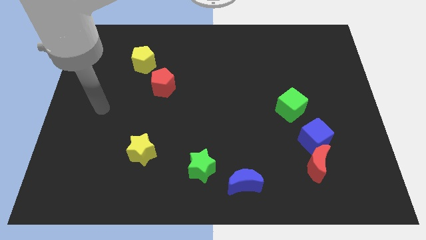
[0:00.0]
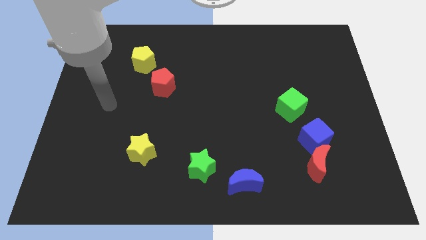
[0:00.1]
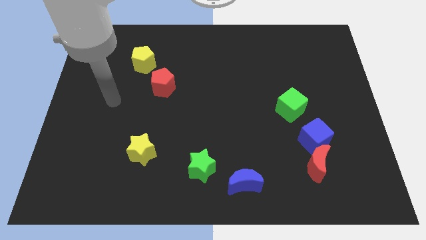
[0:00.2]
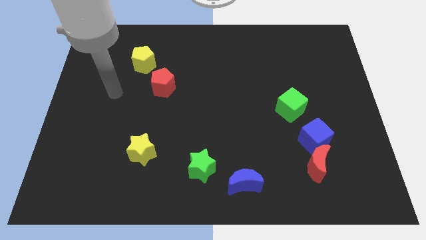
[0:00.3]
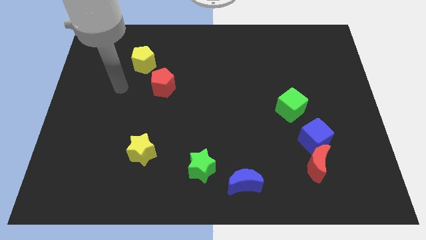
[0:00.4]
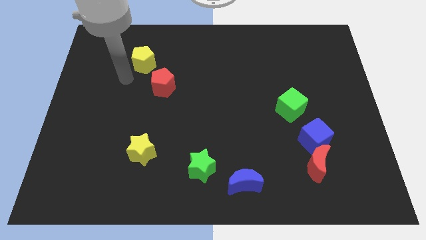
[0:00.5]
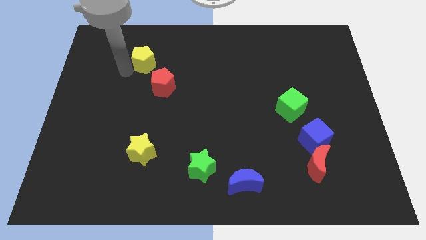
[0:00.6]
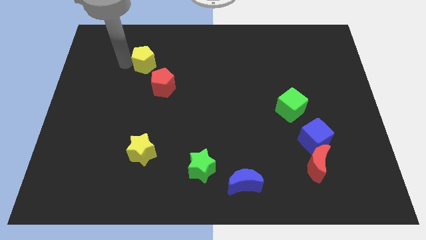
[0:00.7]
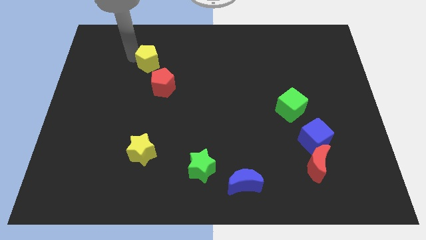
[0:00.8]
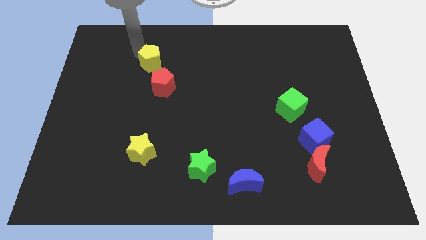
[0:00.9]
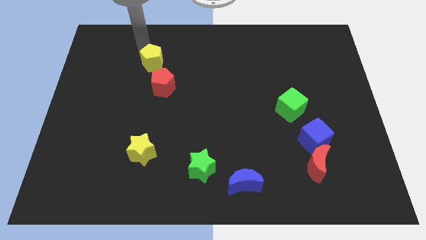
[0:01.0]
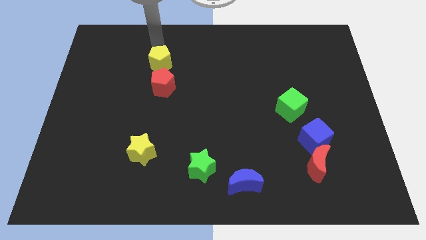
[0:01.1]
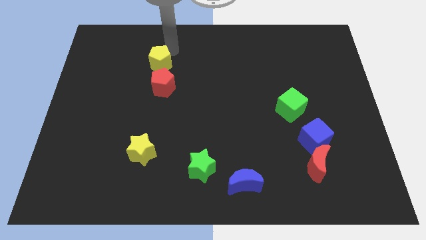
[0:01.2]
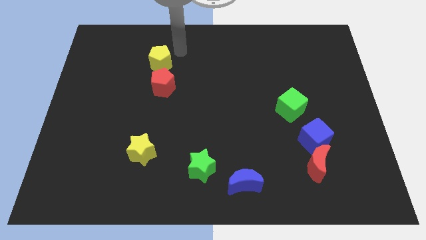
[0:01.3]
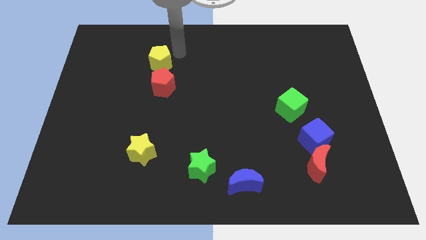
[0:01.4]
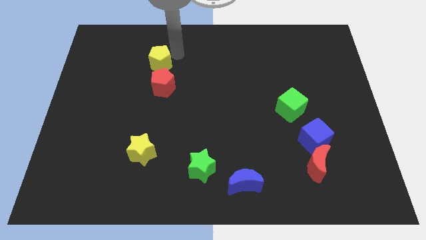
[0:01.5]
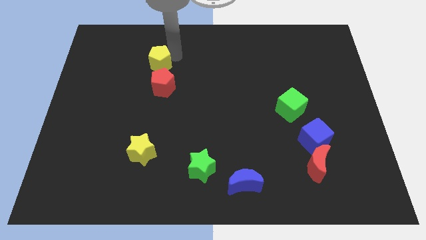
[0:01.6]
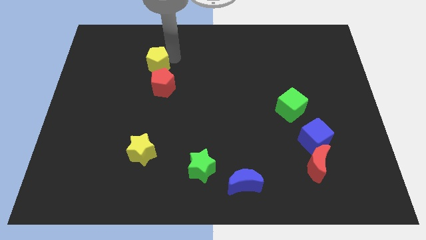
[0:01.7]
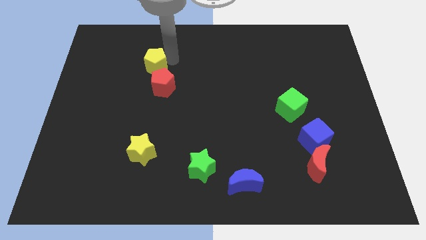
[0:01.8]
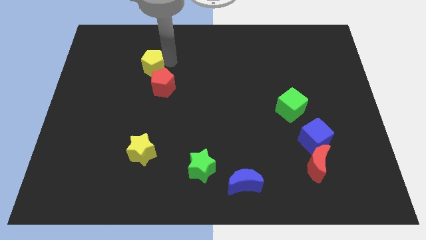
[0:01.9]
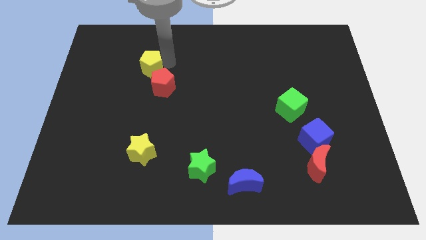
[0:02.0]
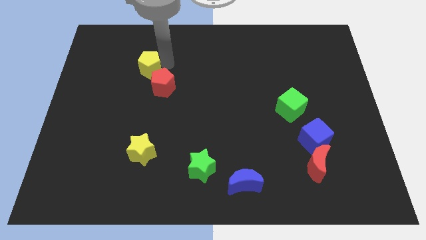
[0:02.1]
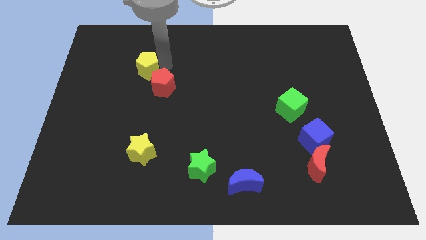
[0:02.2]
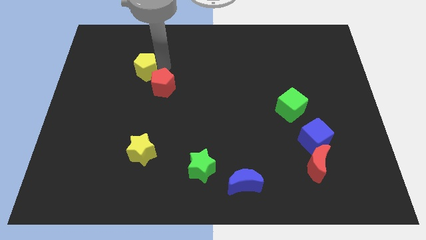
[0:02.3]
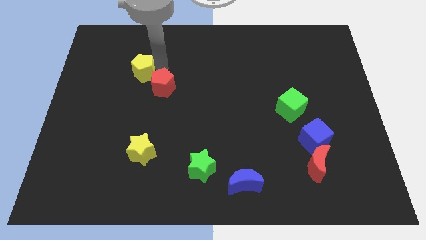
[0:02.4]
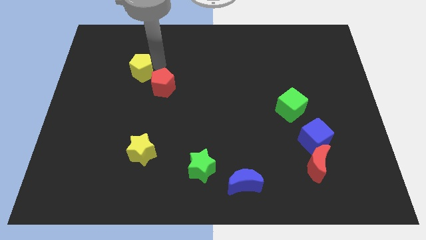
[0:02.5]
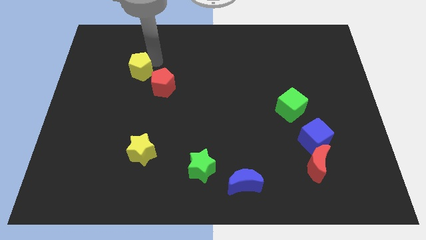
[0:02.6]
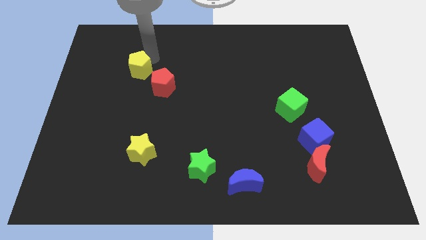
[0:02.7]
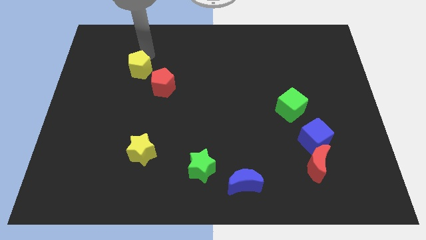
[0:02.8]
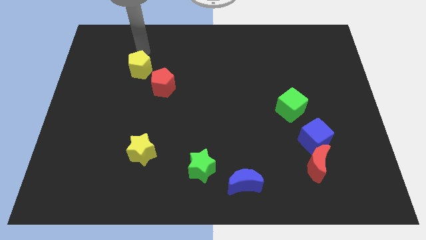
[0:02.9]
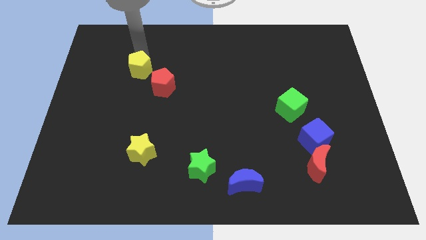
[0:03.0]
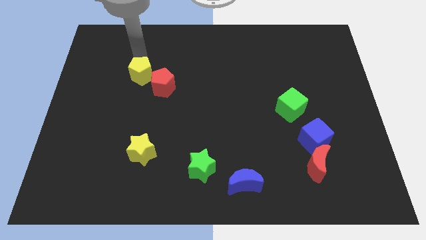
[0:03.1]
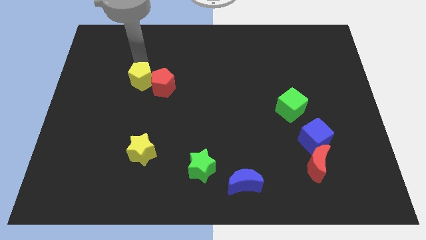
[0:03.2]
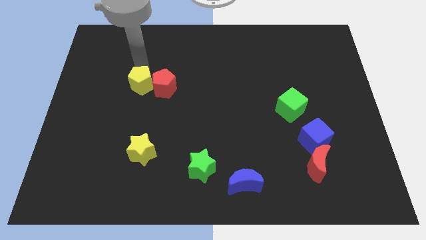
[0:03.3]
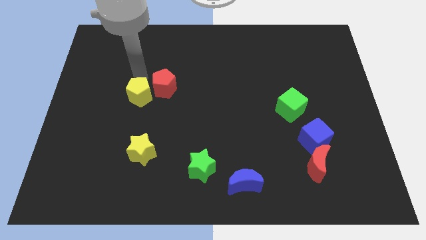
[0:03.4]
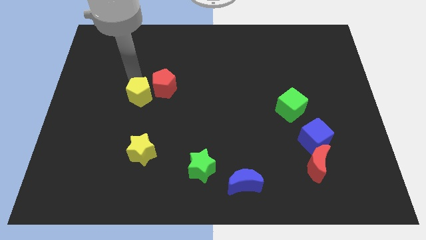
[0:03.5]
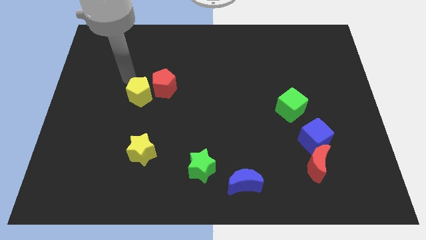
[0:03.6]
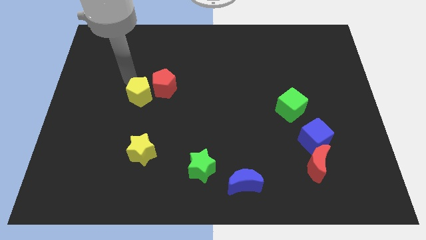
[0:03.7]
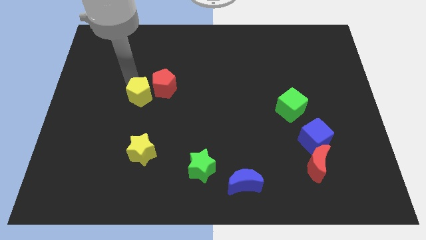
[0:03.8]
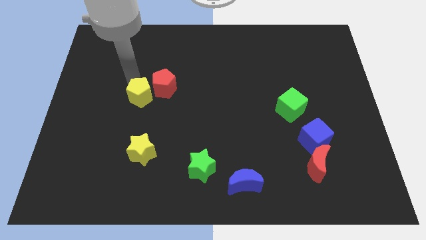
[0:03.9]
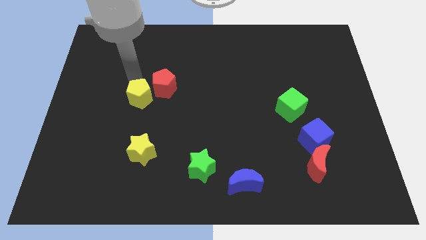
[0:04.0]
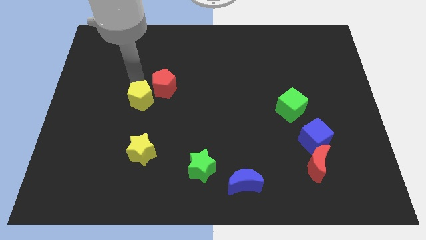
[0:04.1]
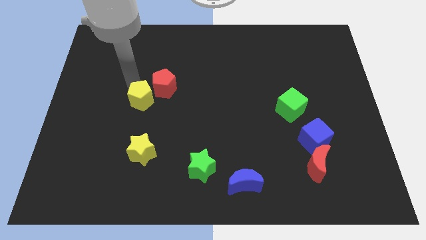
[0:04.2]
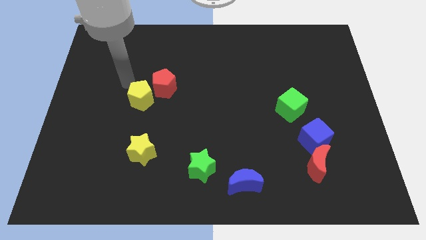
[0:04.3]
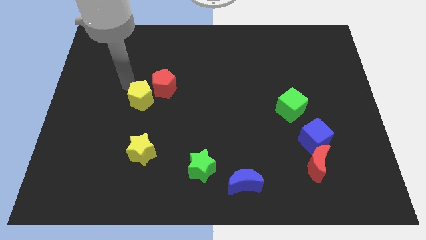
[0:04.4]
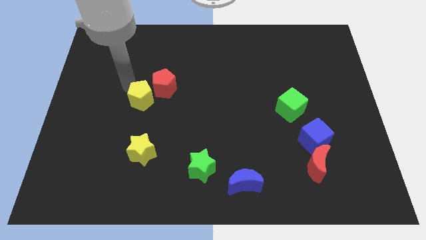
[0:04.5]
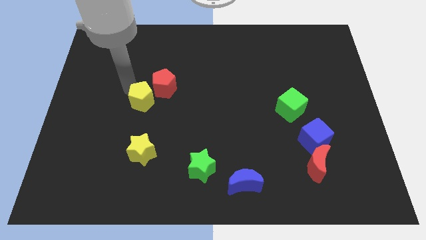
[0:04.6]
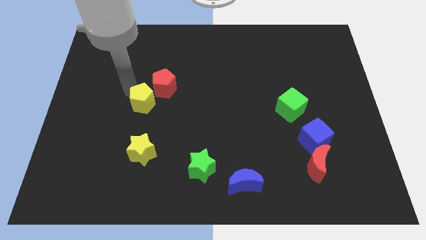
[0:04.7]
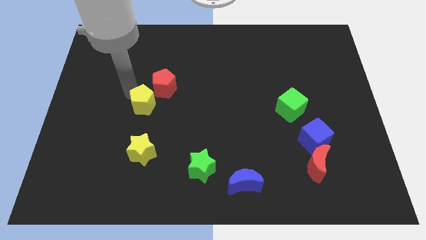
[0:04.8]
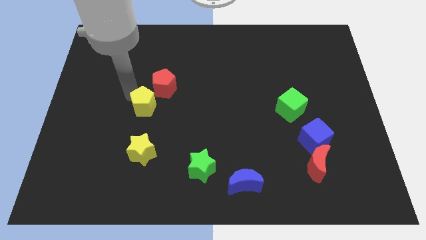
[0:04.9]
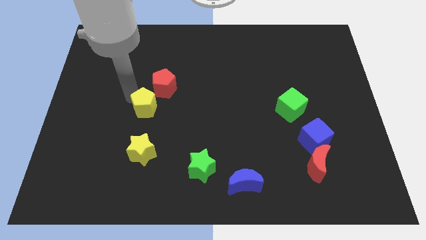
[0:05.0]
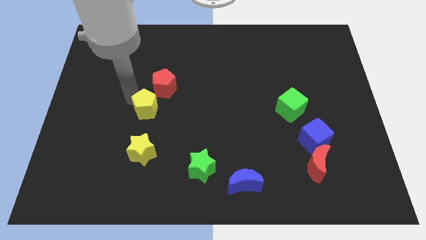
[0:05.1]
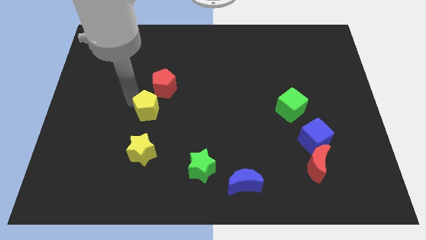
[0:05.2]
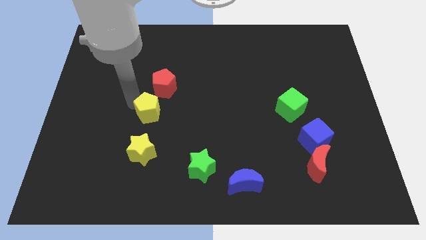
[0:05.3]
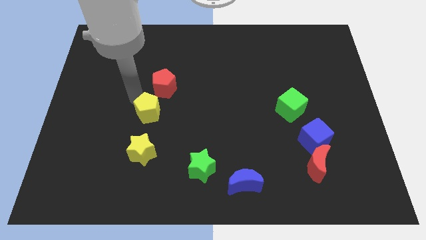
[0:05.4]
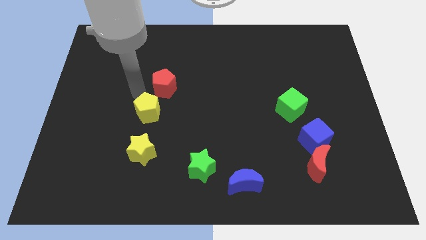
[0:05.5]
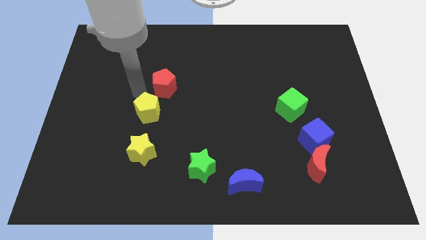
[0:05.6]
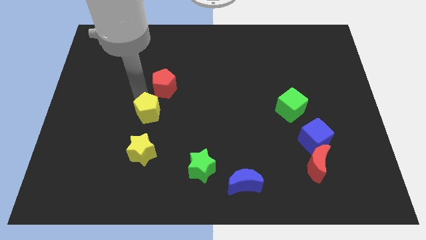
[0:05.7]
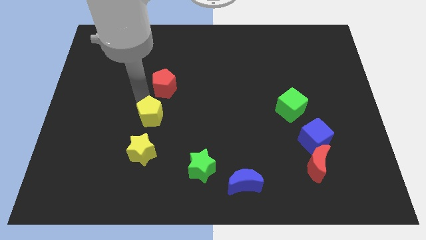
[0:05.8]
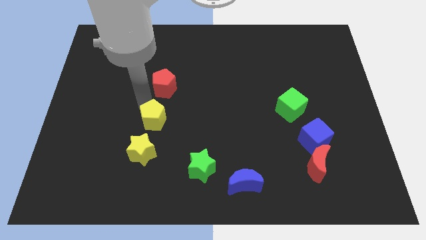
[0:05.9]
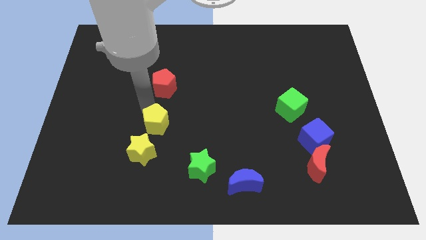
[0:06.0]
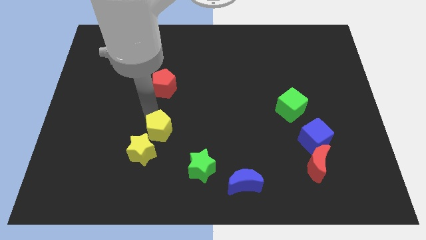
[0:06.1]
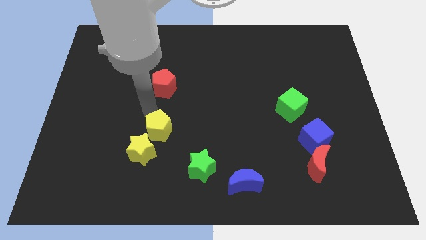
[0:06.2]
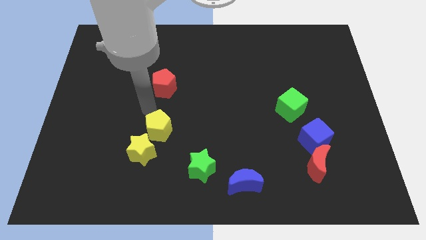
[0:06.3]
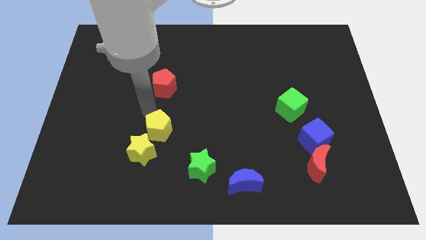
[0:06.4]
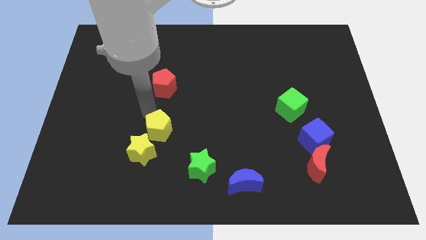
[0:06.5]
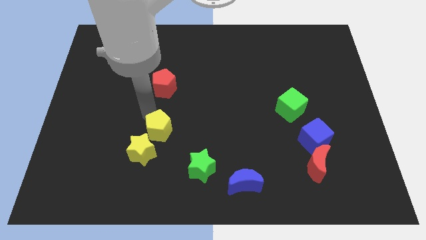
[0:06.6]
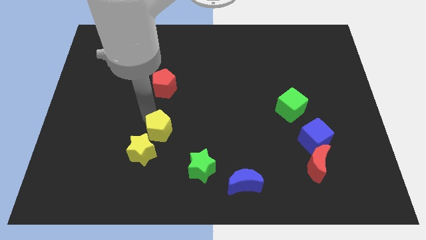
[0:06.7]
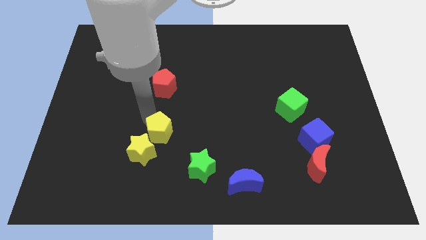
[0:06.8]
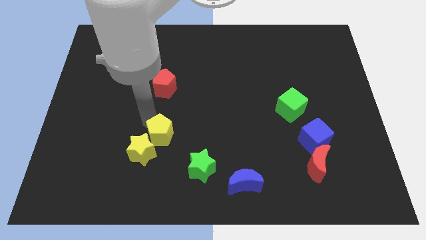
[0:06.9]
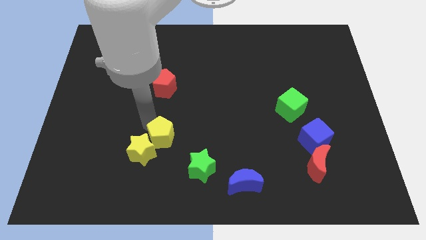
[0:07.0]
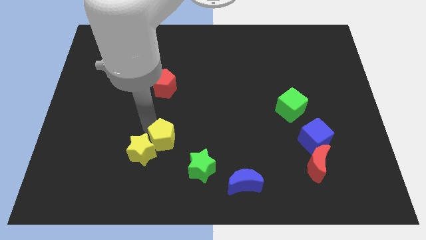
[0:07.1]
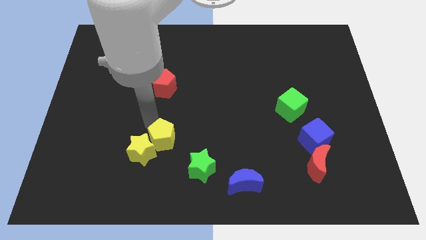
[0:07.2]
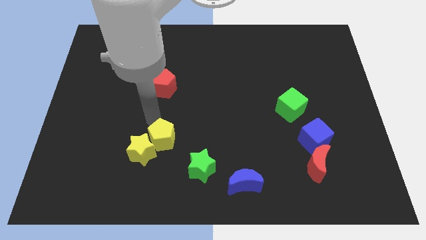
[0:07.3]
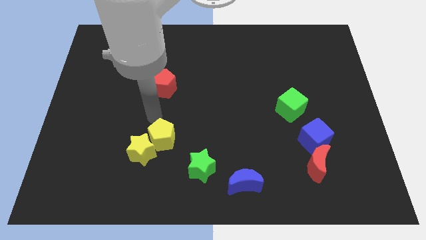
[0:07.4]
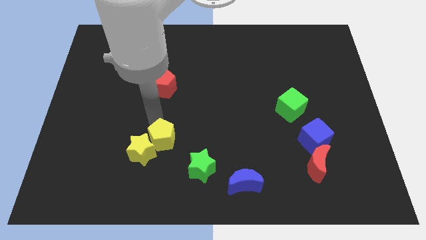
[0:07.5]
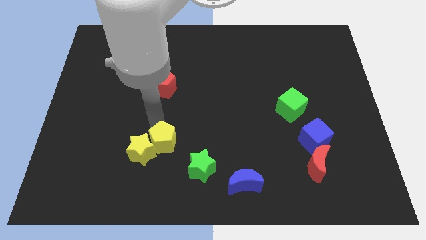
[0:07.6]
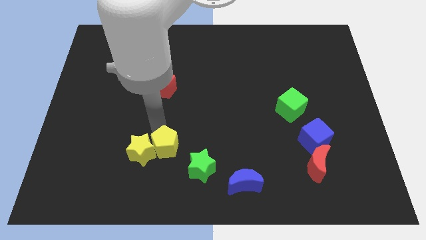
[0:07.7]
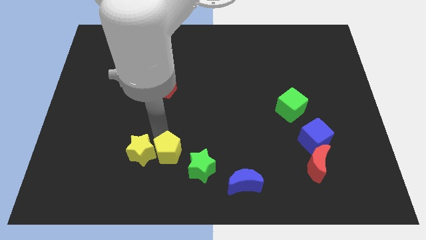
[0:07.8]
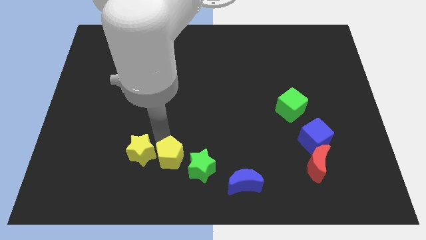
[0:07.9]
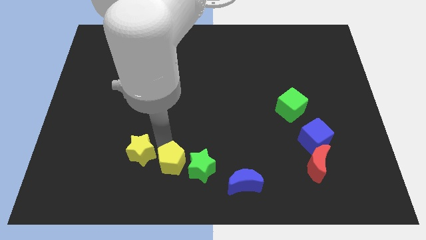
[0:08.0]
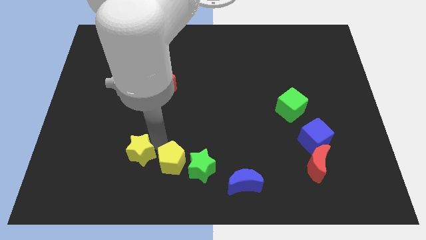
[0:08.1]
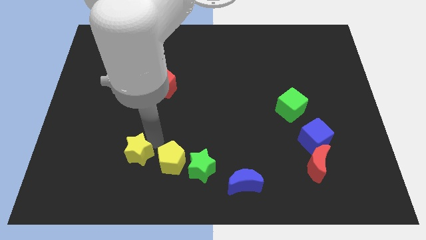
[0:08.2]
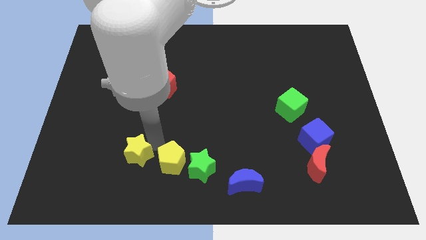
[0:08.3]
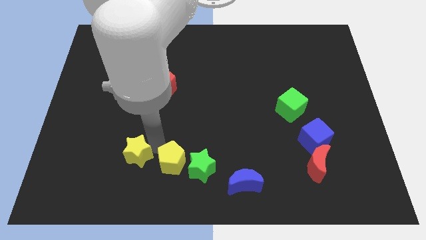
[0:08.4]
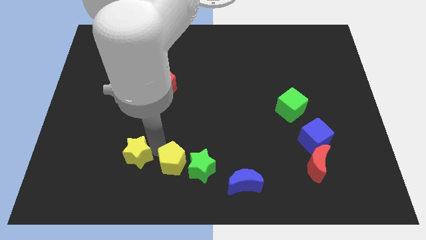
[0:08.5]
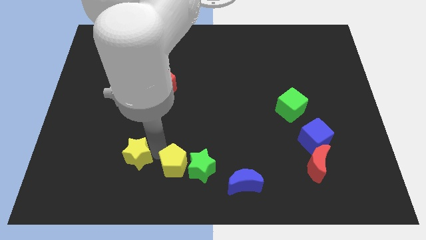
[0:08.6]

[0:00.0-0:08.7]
move the yellow pentagon to the bottom side
